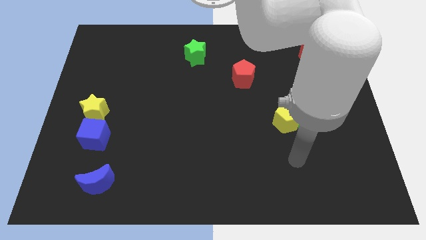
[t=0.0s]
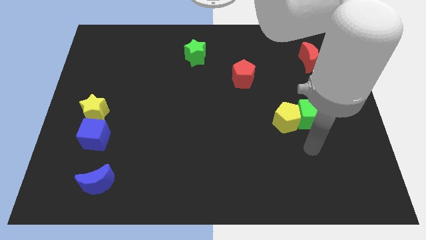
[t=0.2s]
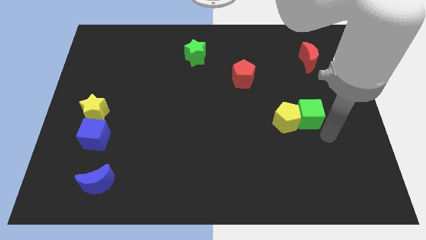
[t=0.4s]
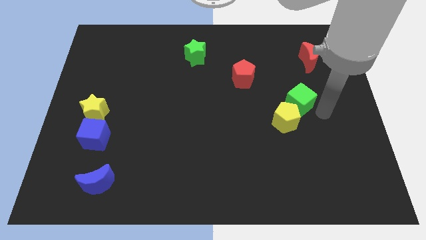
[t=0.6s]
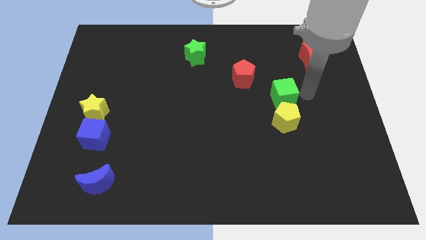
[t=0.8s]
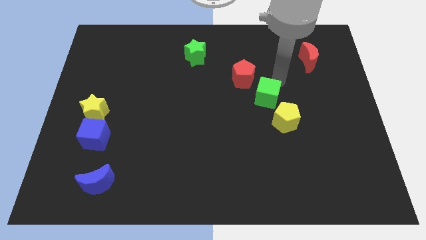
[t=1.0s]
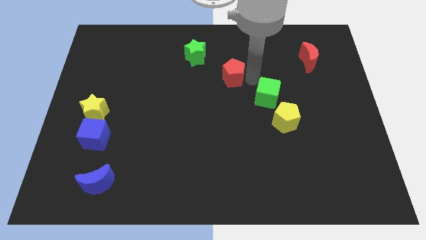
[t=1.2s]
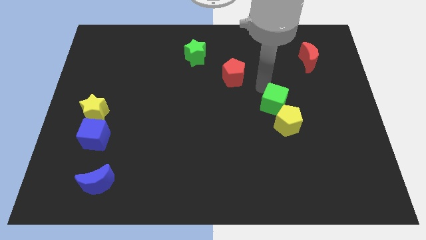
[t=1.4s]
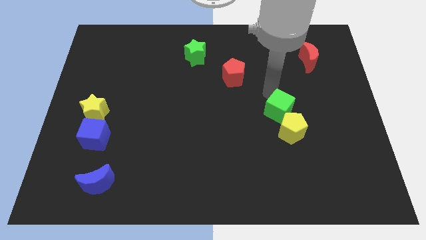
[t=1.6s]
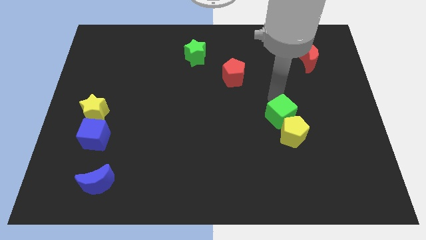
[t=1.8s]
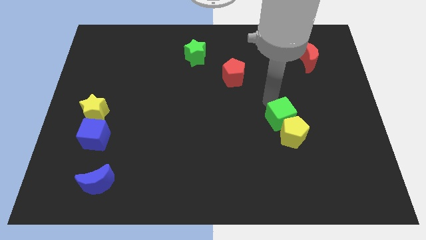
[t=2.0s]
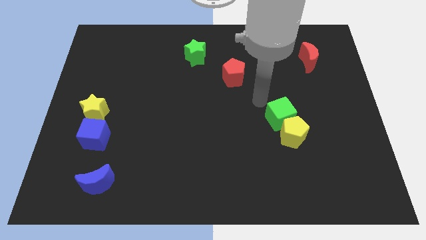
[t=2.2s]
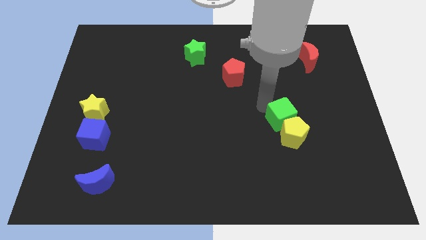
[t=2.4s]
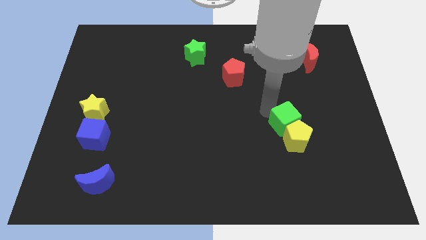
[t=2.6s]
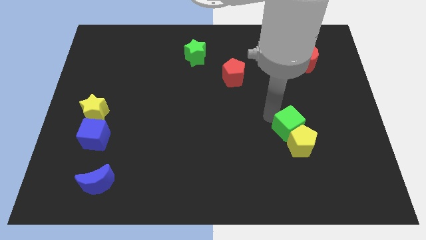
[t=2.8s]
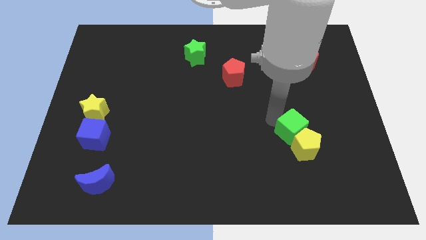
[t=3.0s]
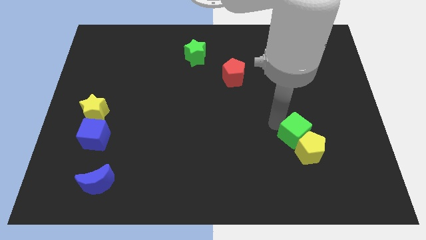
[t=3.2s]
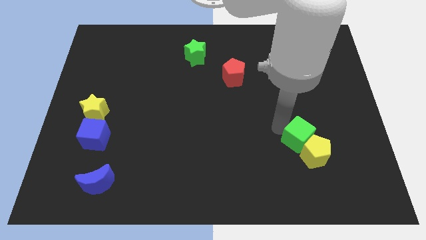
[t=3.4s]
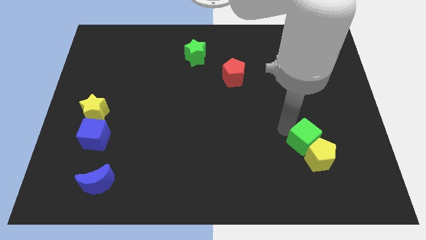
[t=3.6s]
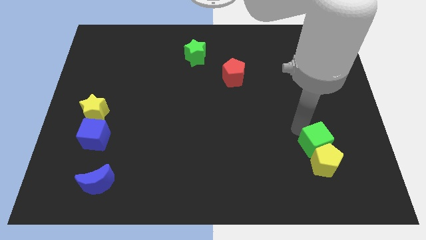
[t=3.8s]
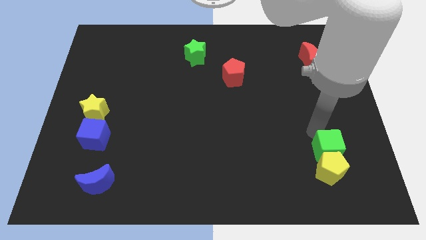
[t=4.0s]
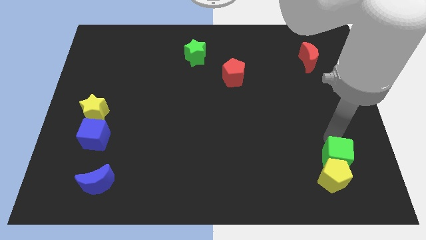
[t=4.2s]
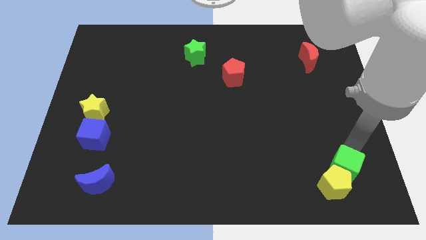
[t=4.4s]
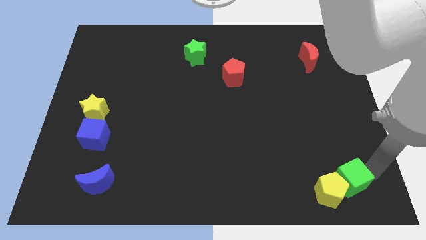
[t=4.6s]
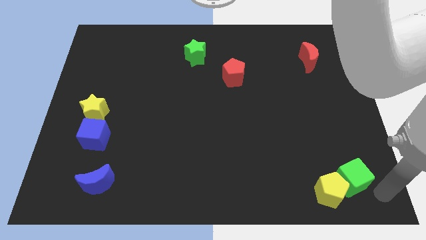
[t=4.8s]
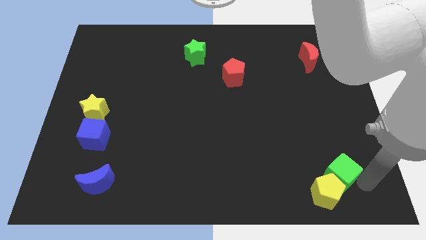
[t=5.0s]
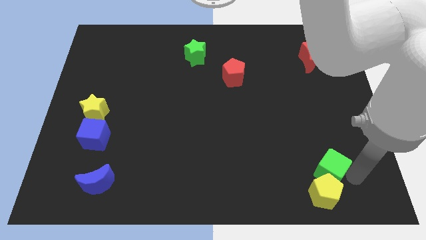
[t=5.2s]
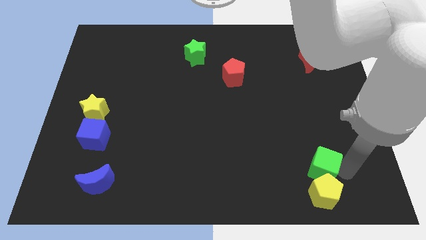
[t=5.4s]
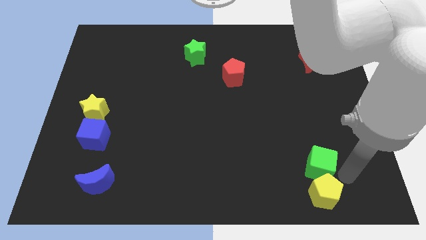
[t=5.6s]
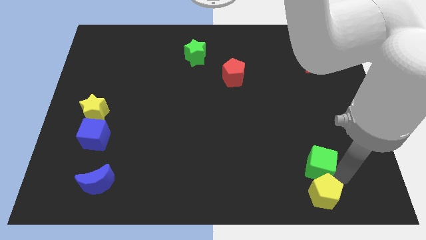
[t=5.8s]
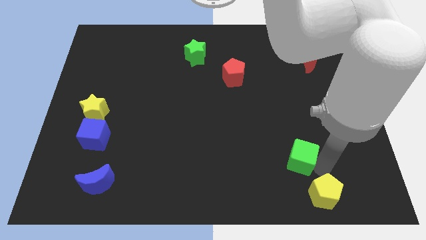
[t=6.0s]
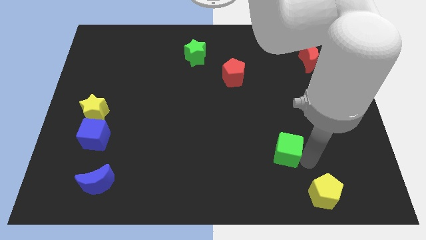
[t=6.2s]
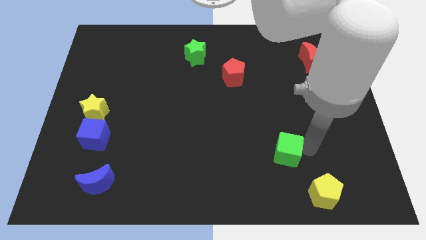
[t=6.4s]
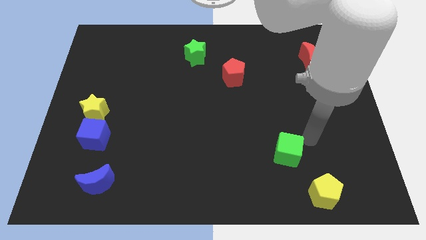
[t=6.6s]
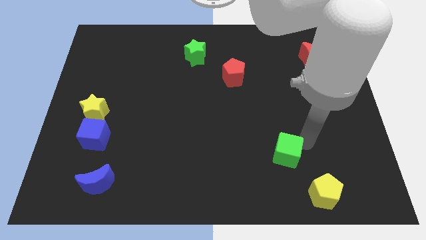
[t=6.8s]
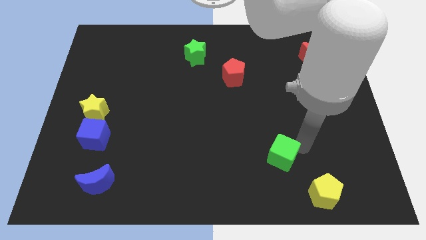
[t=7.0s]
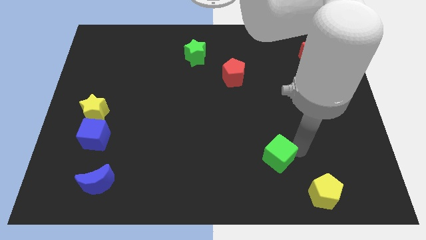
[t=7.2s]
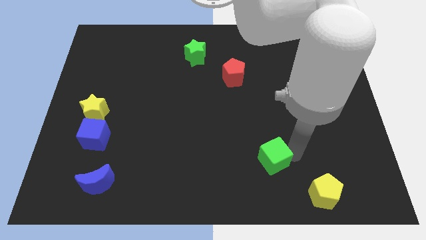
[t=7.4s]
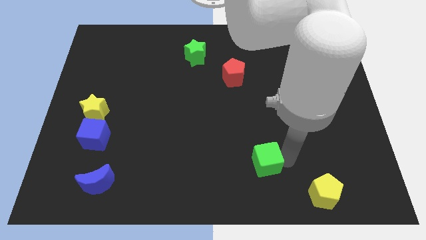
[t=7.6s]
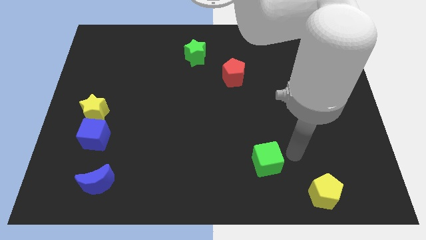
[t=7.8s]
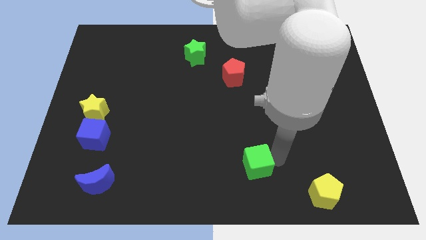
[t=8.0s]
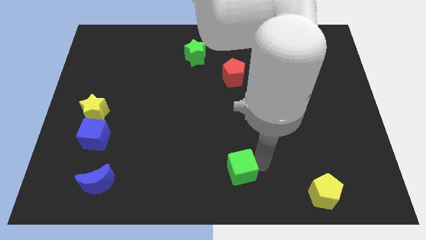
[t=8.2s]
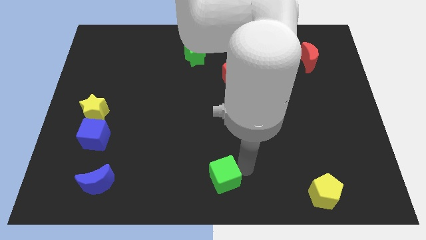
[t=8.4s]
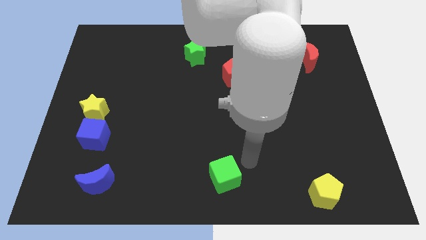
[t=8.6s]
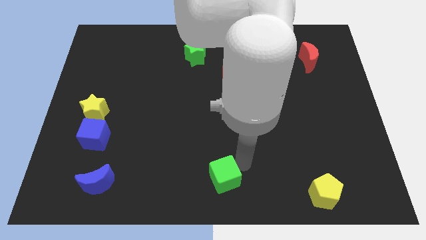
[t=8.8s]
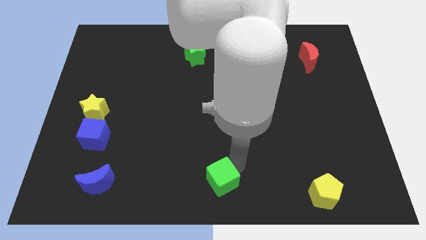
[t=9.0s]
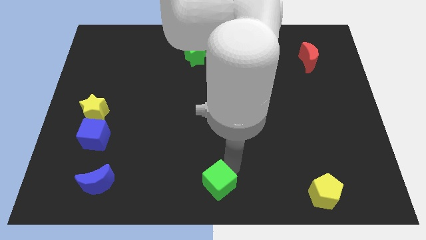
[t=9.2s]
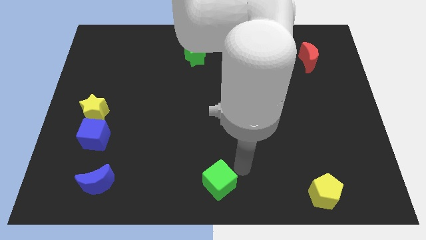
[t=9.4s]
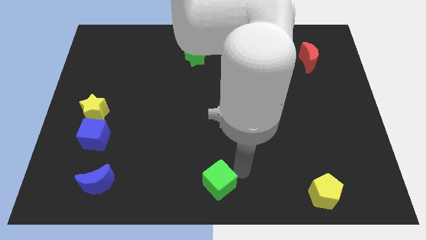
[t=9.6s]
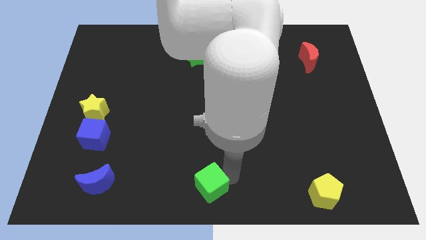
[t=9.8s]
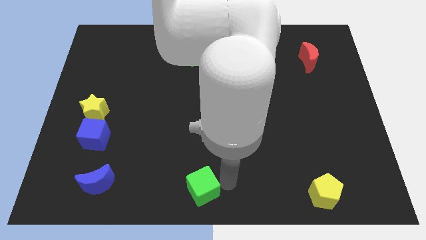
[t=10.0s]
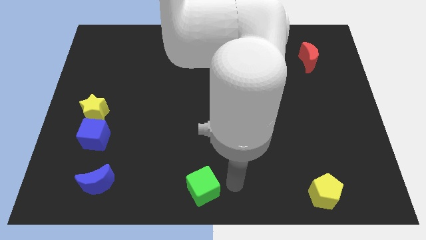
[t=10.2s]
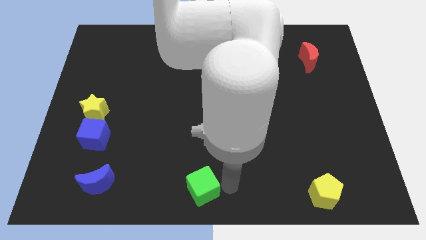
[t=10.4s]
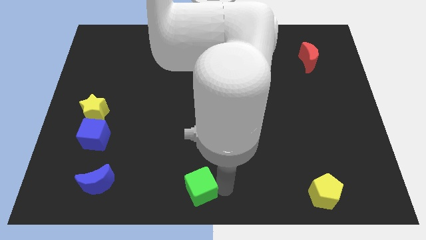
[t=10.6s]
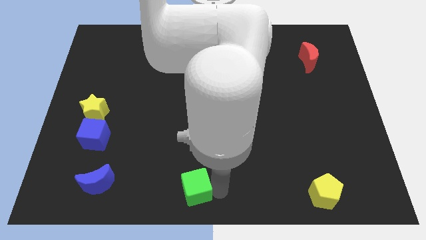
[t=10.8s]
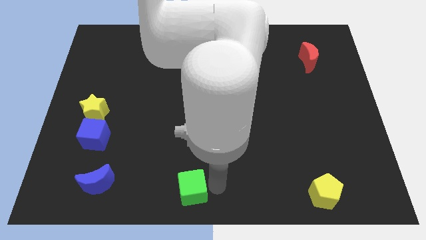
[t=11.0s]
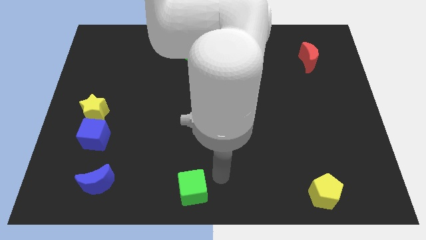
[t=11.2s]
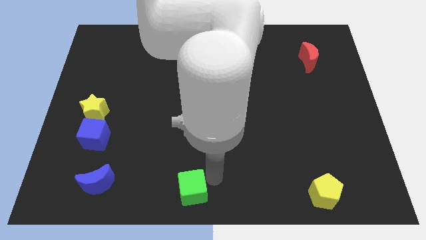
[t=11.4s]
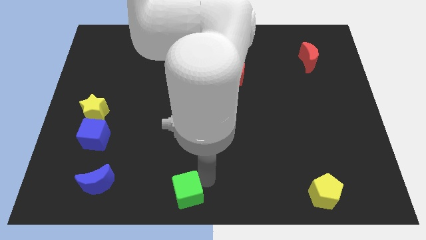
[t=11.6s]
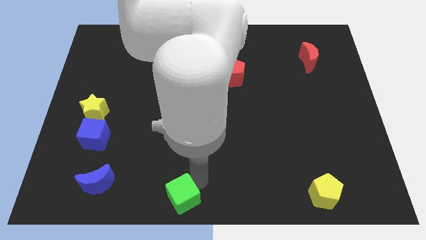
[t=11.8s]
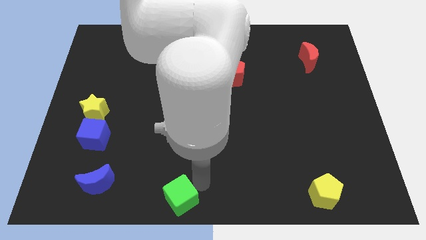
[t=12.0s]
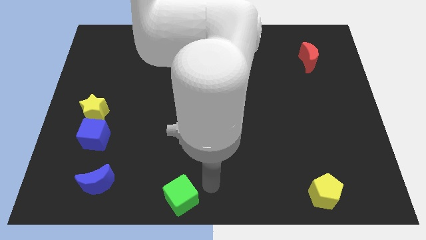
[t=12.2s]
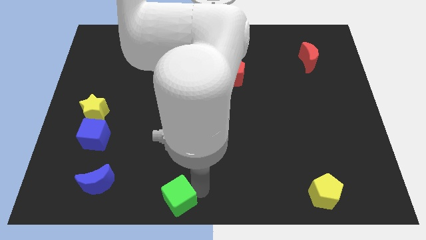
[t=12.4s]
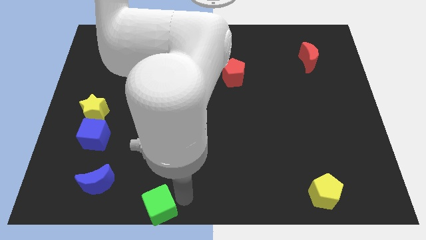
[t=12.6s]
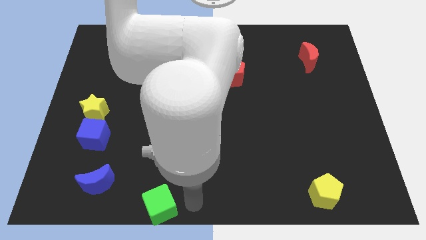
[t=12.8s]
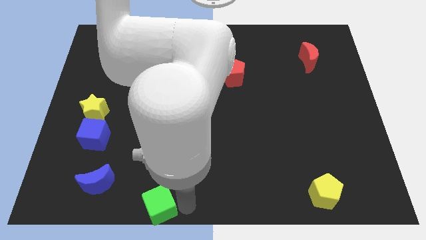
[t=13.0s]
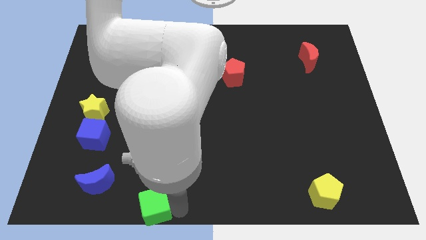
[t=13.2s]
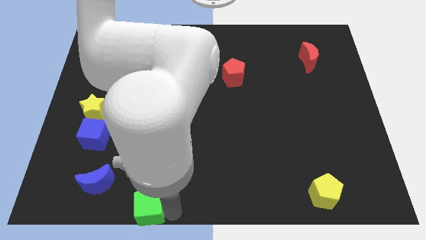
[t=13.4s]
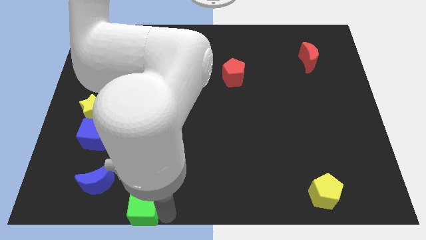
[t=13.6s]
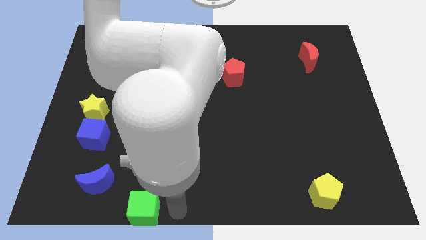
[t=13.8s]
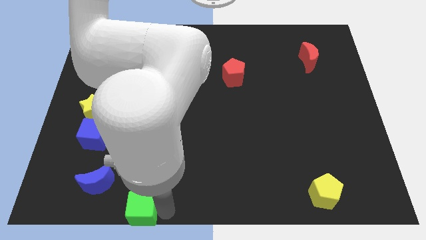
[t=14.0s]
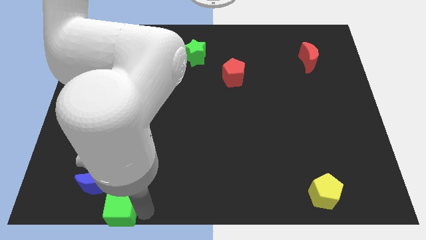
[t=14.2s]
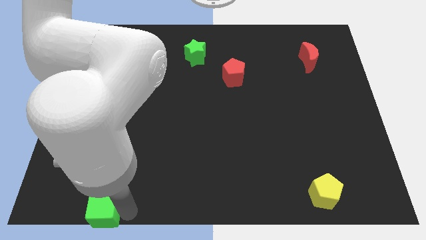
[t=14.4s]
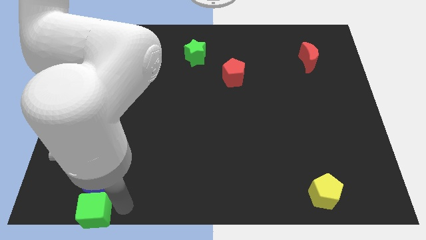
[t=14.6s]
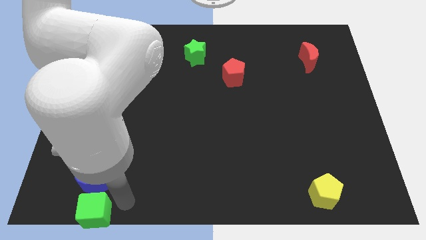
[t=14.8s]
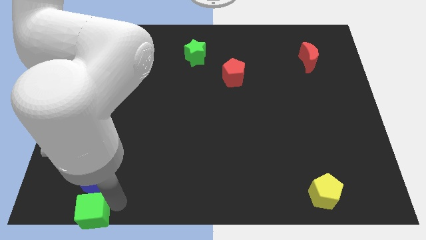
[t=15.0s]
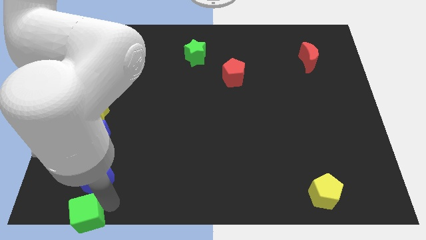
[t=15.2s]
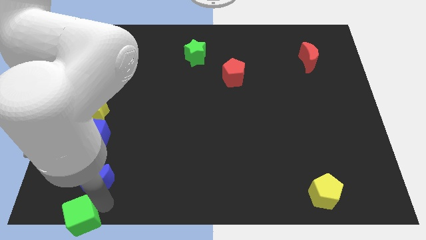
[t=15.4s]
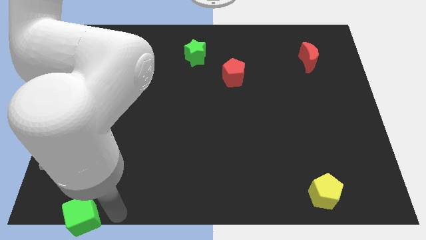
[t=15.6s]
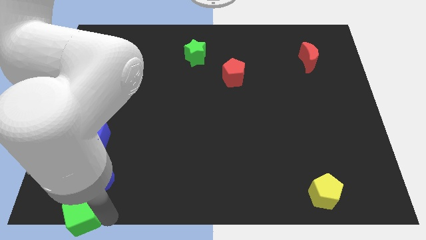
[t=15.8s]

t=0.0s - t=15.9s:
push the green cube to the bottom left corner
